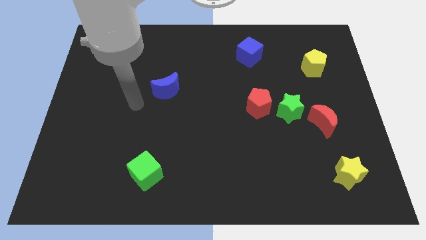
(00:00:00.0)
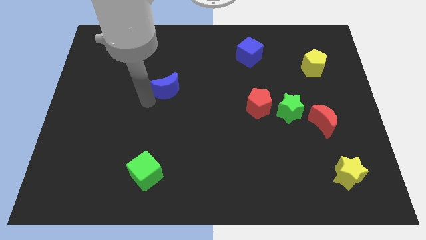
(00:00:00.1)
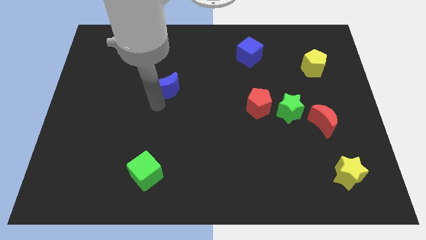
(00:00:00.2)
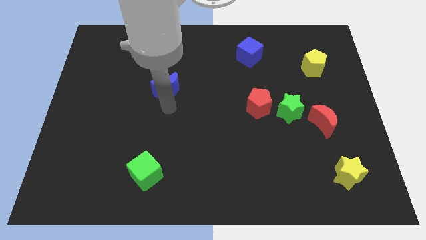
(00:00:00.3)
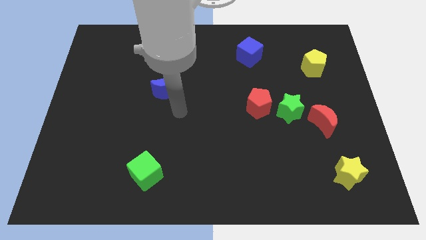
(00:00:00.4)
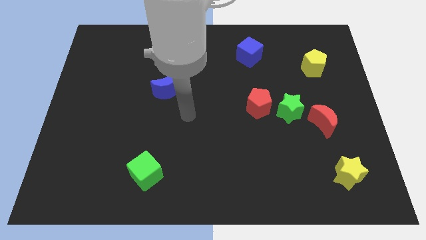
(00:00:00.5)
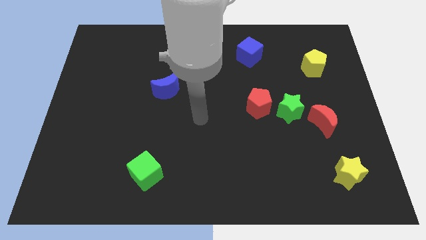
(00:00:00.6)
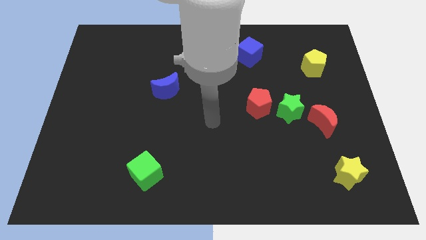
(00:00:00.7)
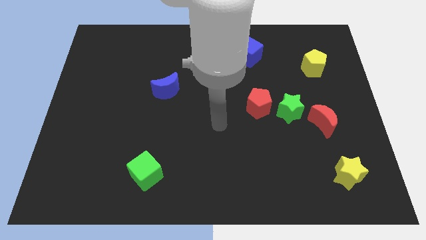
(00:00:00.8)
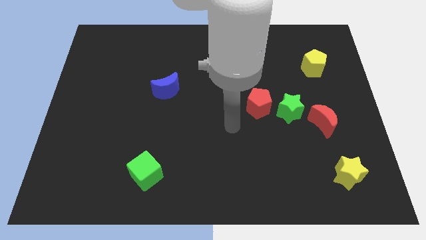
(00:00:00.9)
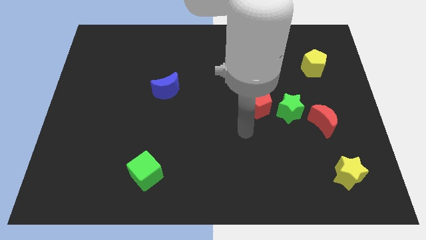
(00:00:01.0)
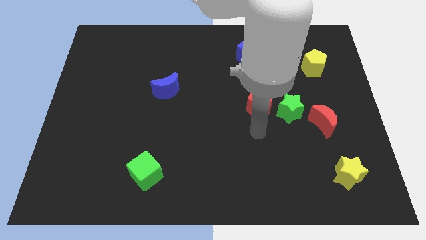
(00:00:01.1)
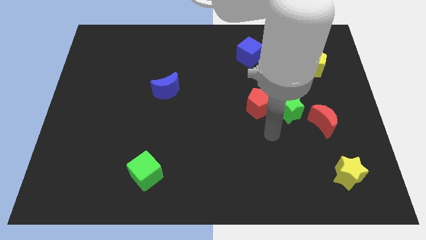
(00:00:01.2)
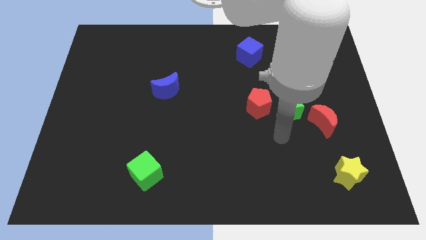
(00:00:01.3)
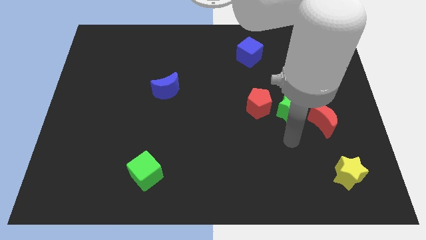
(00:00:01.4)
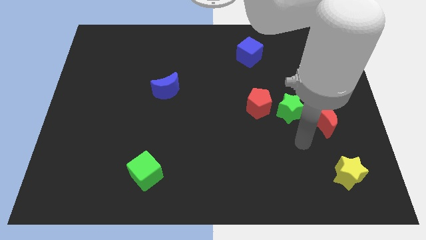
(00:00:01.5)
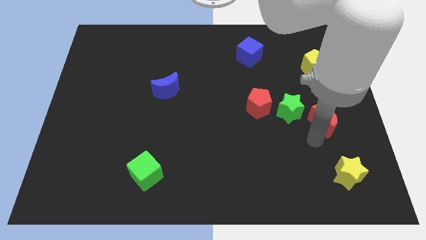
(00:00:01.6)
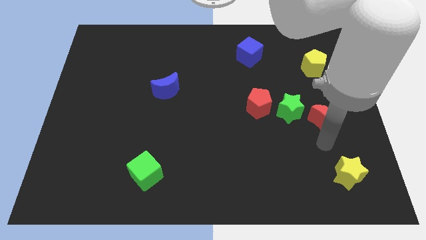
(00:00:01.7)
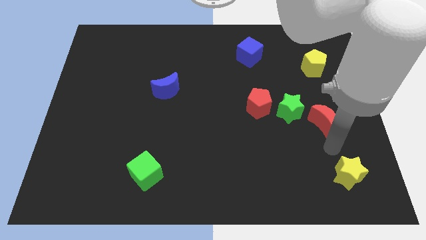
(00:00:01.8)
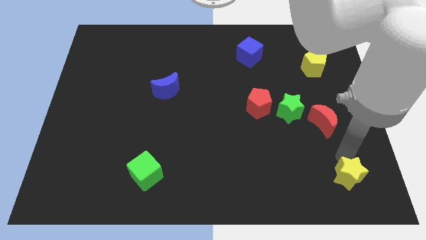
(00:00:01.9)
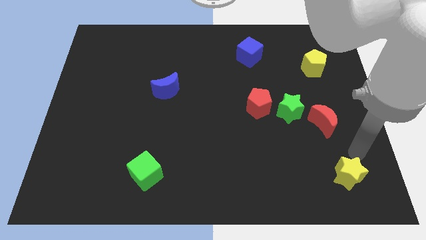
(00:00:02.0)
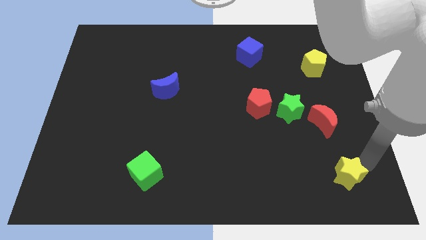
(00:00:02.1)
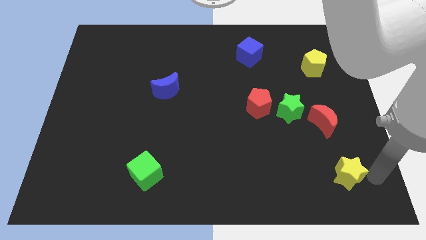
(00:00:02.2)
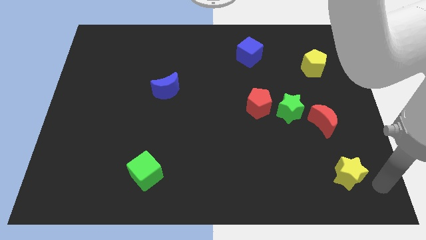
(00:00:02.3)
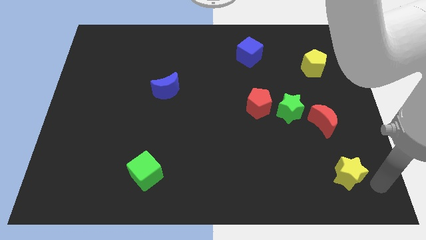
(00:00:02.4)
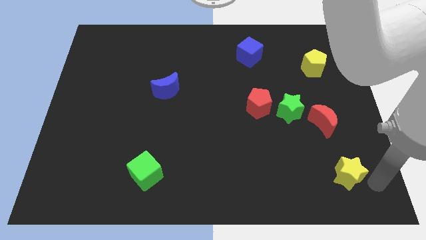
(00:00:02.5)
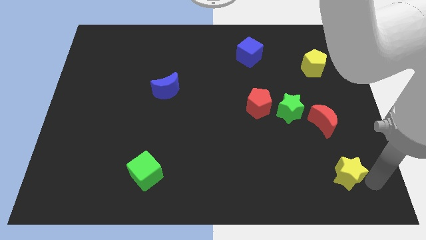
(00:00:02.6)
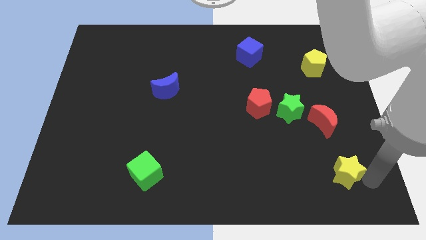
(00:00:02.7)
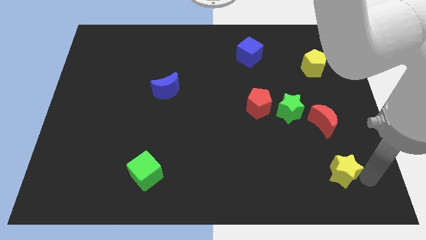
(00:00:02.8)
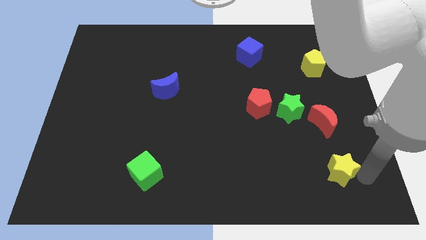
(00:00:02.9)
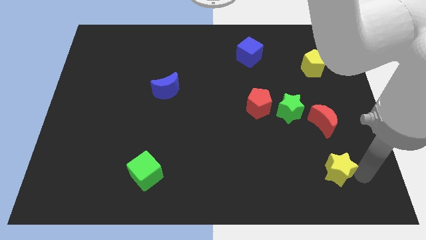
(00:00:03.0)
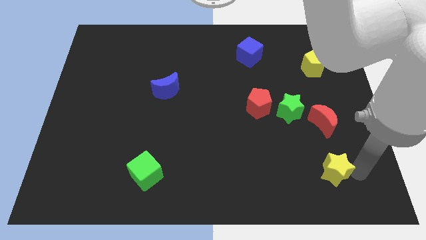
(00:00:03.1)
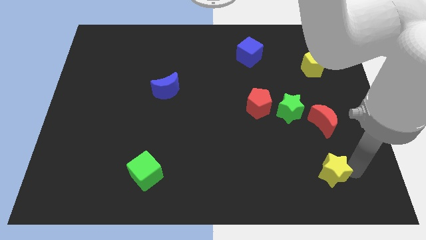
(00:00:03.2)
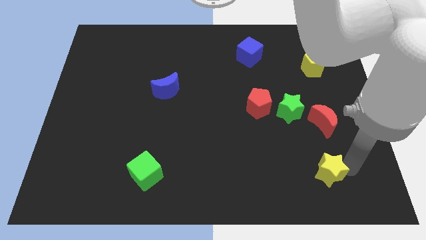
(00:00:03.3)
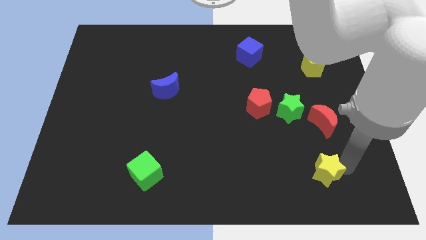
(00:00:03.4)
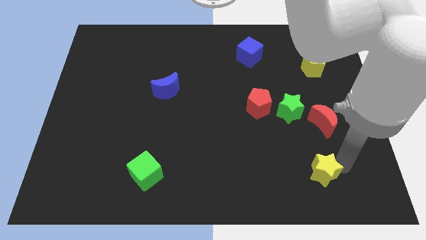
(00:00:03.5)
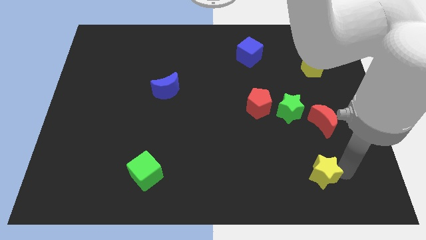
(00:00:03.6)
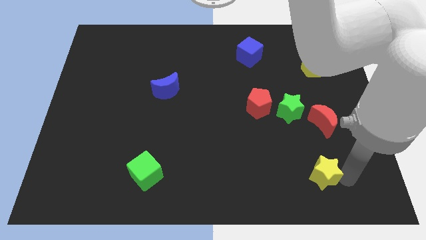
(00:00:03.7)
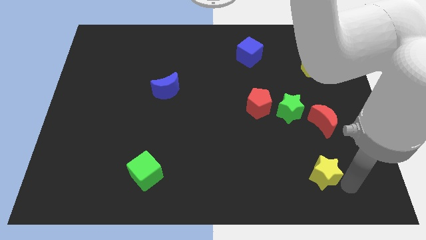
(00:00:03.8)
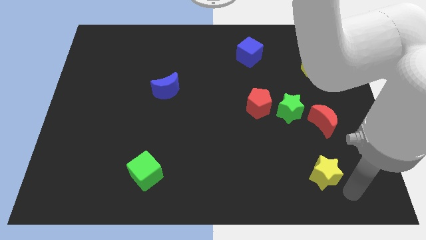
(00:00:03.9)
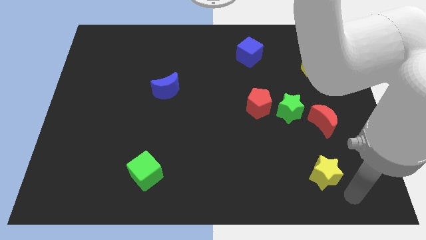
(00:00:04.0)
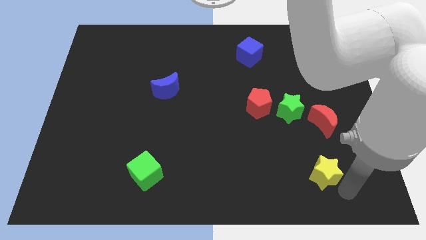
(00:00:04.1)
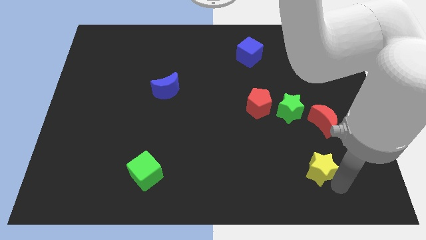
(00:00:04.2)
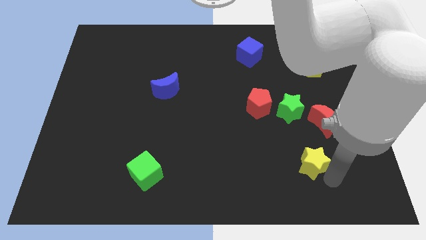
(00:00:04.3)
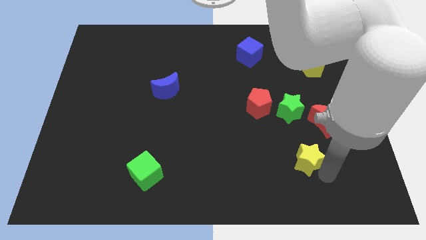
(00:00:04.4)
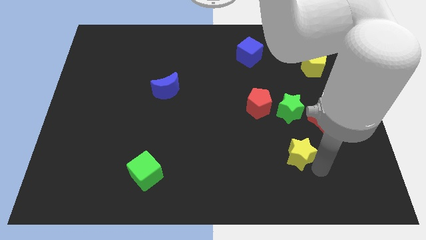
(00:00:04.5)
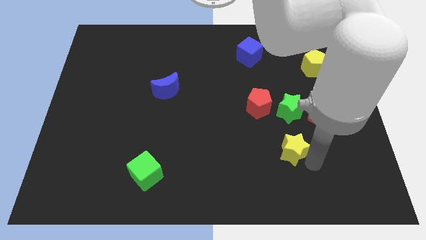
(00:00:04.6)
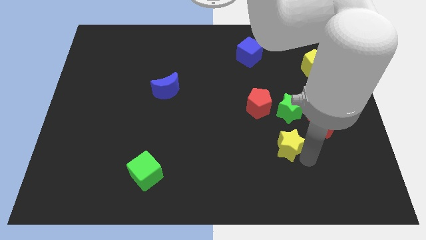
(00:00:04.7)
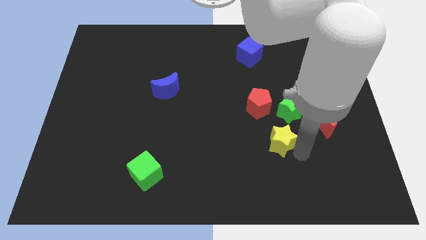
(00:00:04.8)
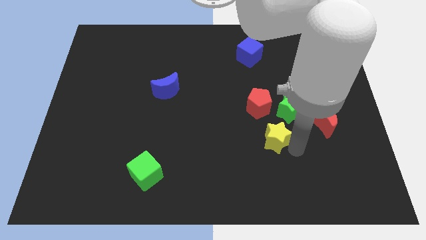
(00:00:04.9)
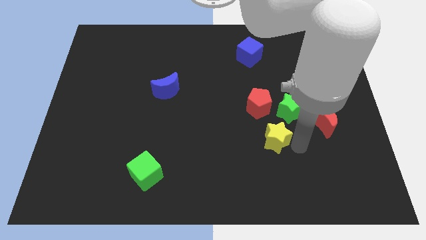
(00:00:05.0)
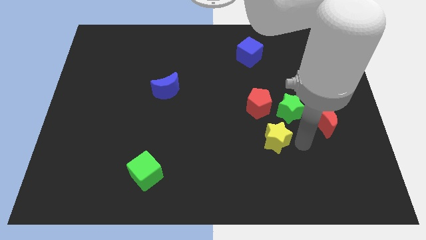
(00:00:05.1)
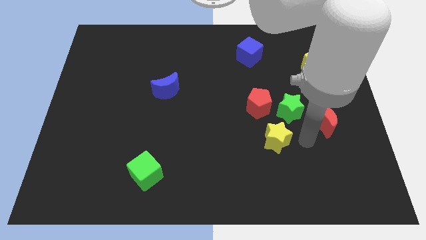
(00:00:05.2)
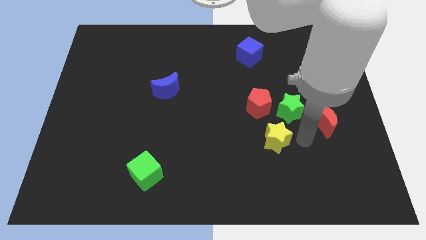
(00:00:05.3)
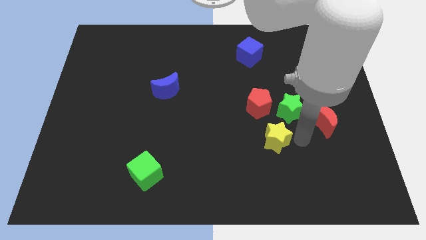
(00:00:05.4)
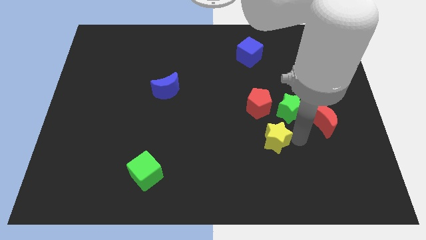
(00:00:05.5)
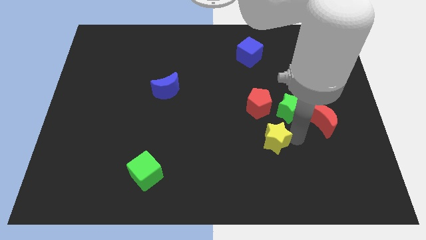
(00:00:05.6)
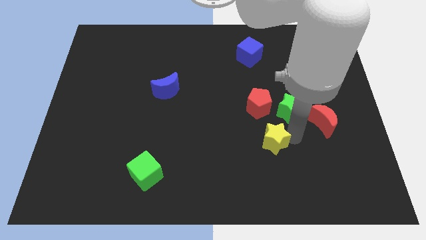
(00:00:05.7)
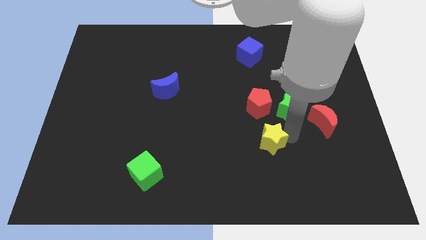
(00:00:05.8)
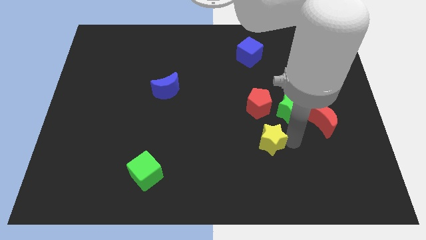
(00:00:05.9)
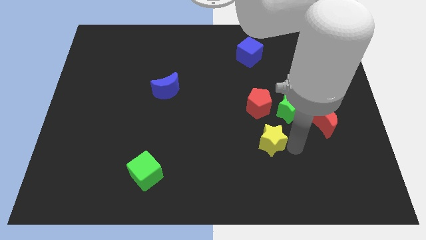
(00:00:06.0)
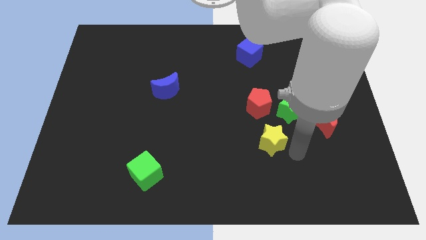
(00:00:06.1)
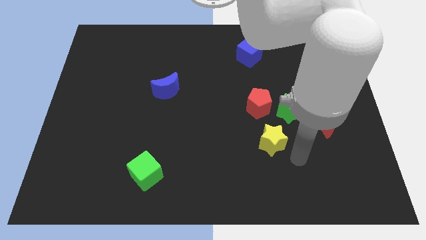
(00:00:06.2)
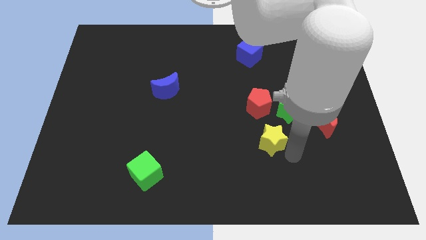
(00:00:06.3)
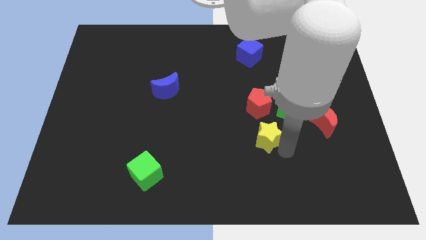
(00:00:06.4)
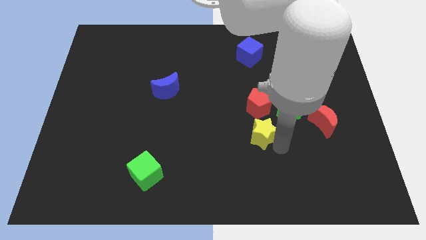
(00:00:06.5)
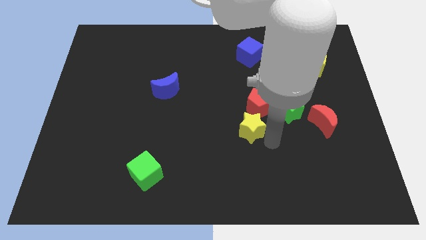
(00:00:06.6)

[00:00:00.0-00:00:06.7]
push the yellow star upwards and left

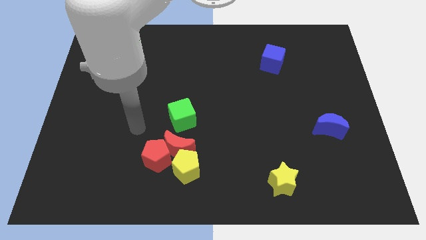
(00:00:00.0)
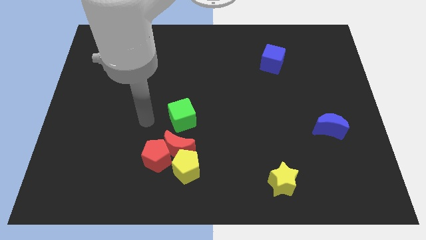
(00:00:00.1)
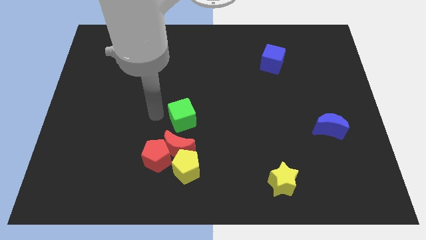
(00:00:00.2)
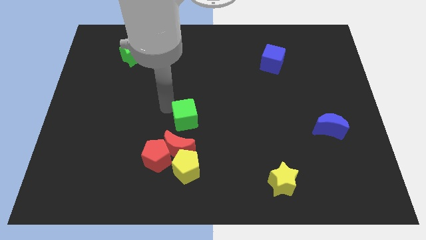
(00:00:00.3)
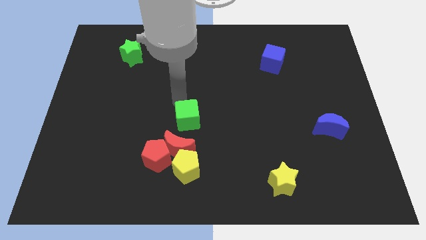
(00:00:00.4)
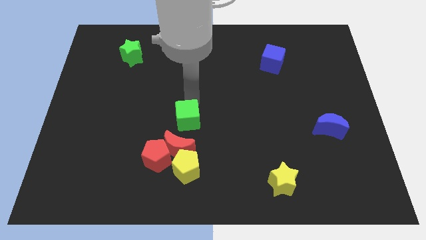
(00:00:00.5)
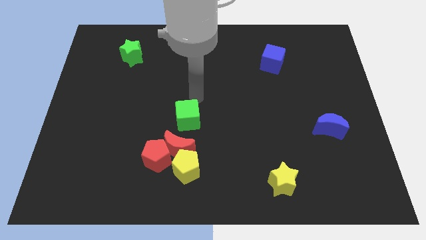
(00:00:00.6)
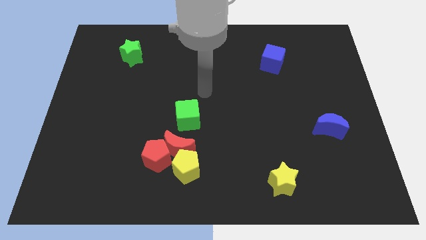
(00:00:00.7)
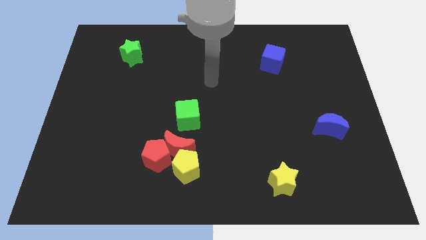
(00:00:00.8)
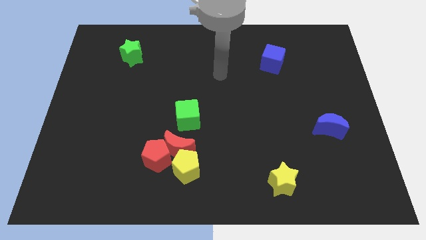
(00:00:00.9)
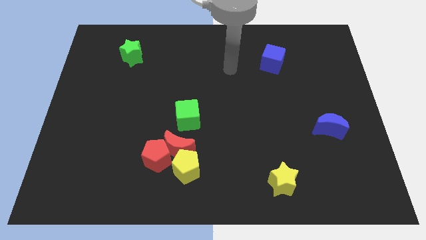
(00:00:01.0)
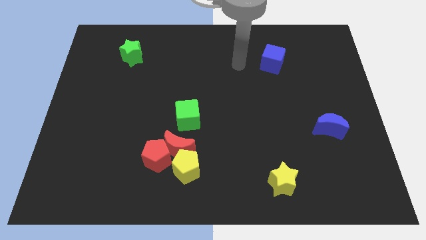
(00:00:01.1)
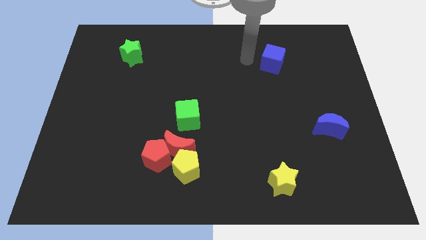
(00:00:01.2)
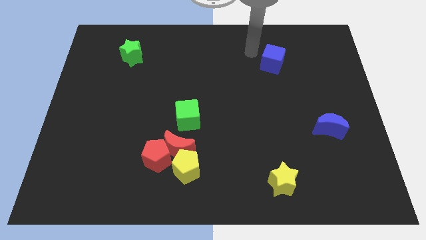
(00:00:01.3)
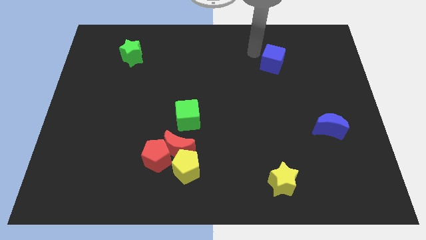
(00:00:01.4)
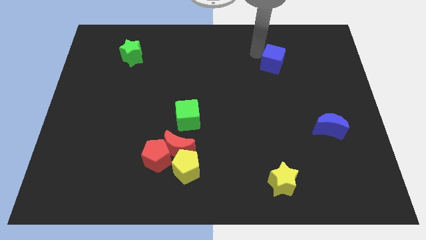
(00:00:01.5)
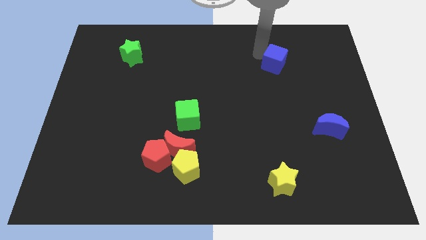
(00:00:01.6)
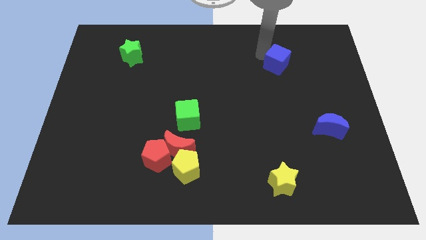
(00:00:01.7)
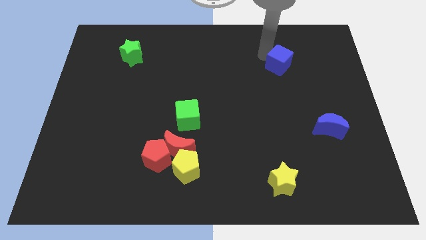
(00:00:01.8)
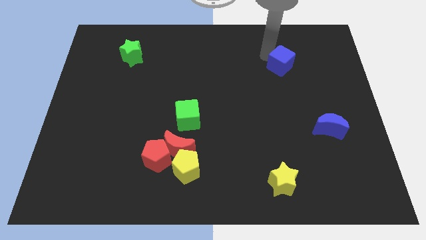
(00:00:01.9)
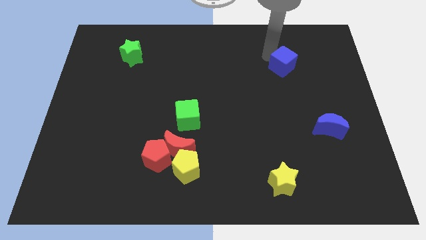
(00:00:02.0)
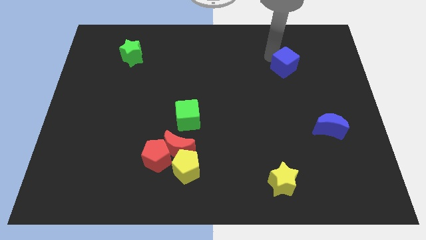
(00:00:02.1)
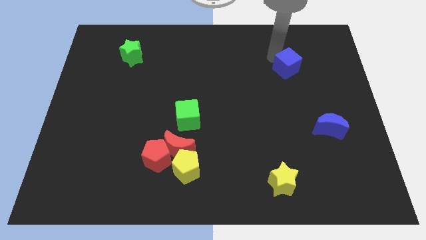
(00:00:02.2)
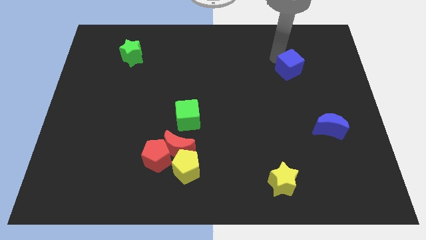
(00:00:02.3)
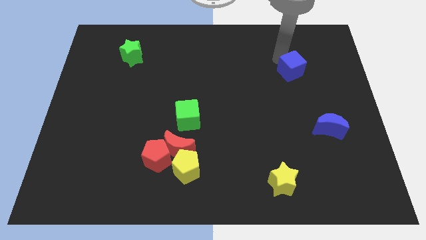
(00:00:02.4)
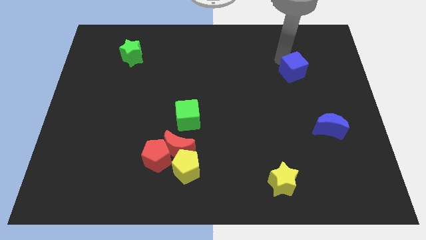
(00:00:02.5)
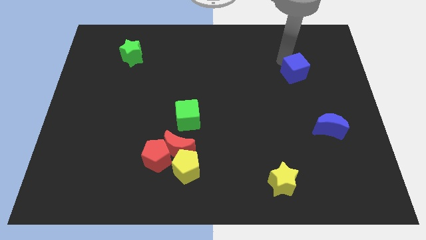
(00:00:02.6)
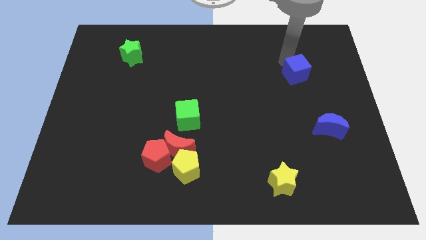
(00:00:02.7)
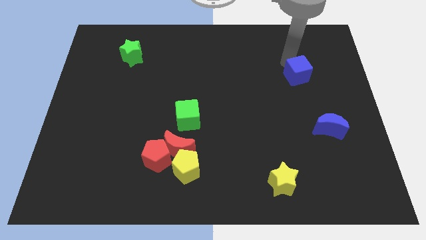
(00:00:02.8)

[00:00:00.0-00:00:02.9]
slightly push the blue cube downwards and to the right diagonally
